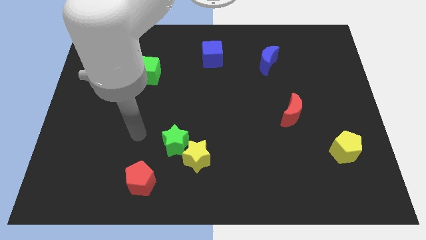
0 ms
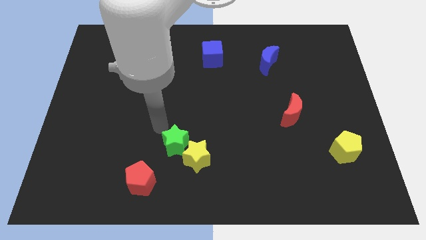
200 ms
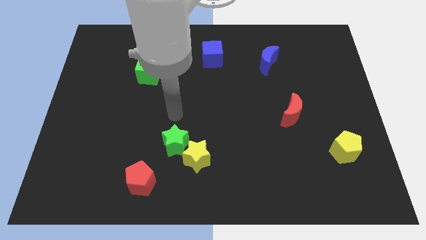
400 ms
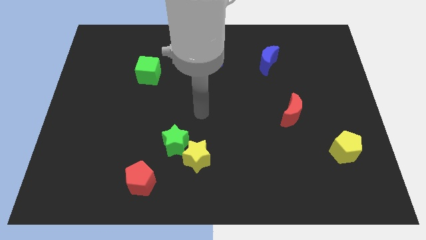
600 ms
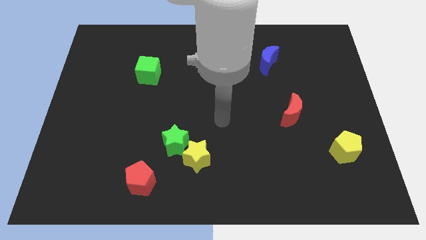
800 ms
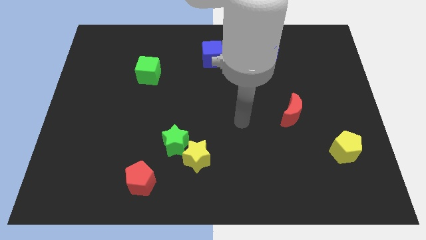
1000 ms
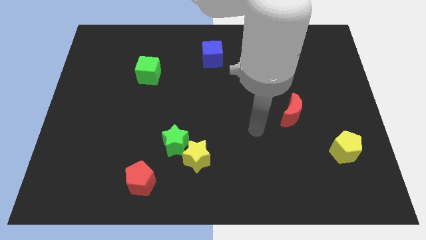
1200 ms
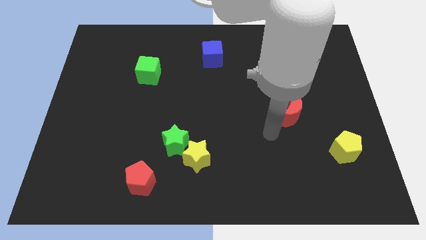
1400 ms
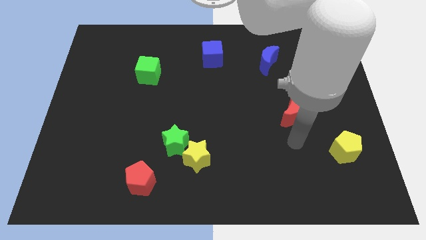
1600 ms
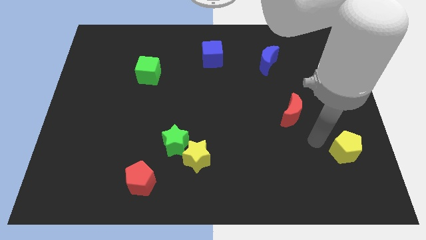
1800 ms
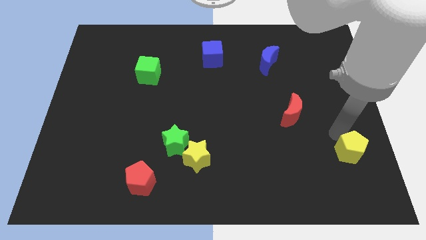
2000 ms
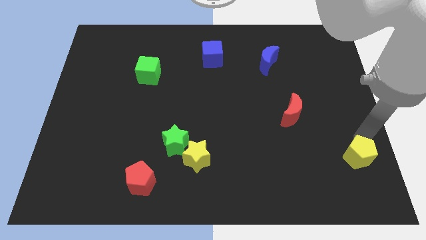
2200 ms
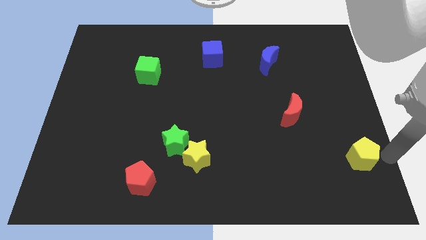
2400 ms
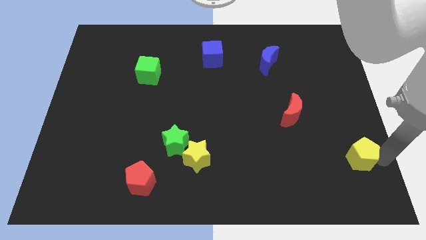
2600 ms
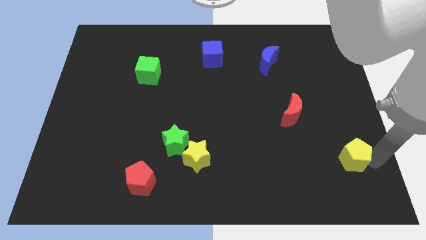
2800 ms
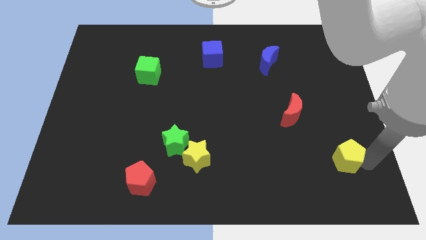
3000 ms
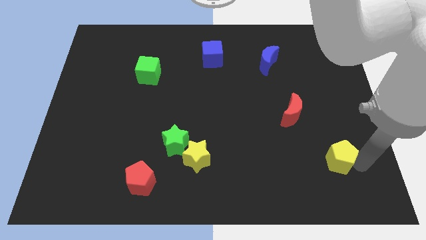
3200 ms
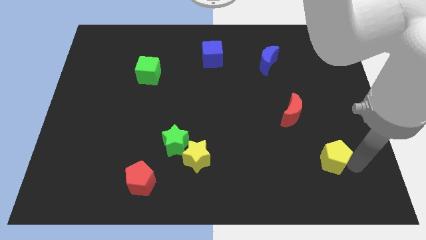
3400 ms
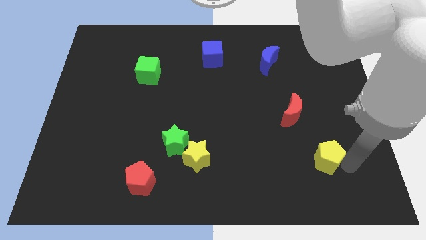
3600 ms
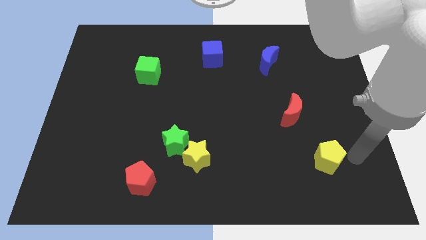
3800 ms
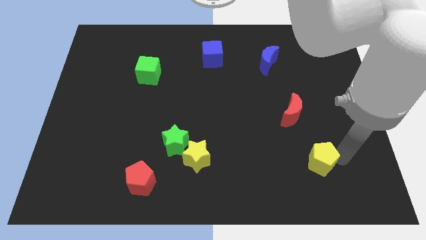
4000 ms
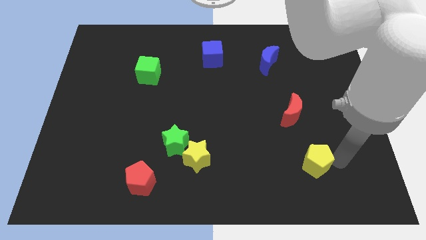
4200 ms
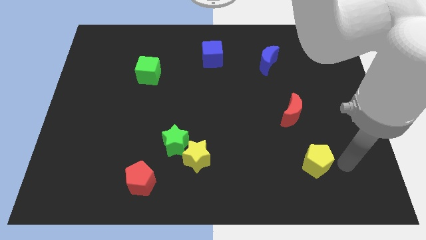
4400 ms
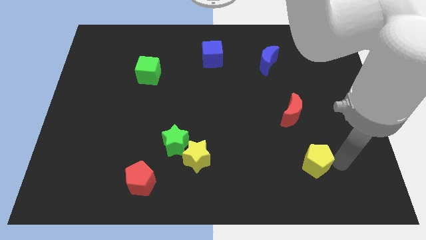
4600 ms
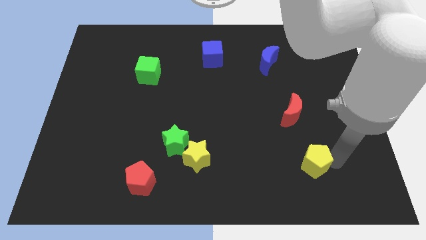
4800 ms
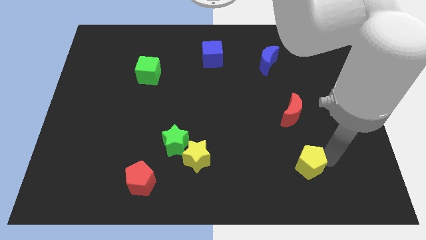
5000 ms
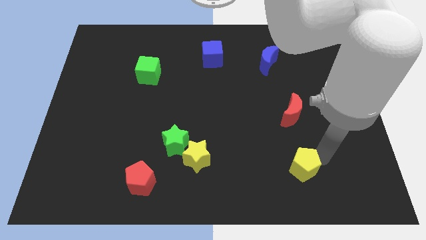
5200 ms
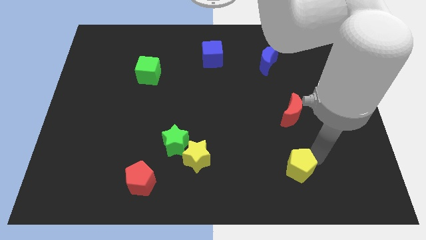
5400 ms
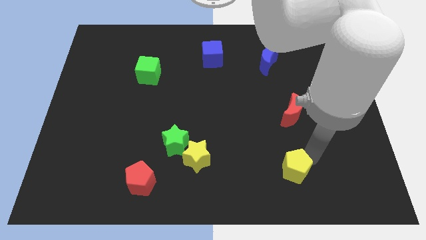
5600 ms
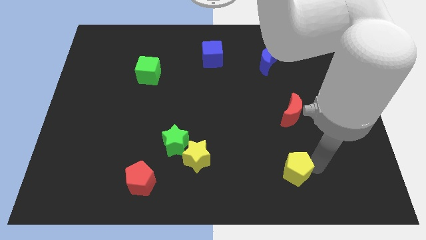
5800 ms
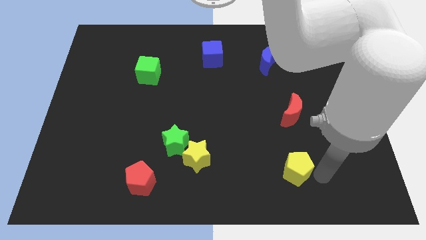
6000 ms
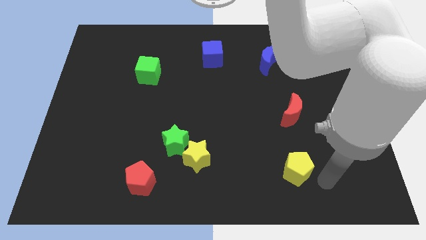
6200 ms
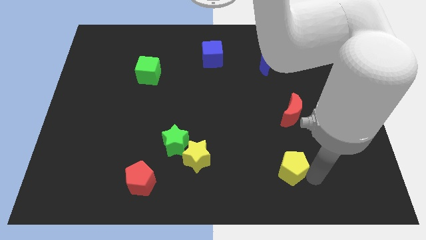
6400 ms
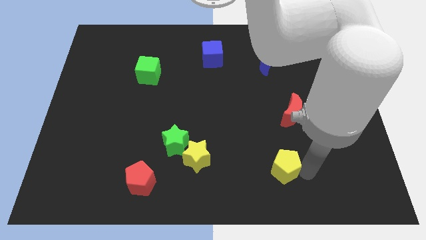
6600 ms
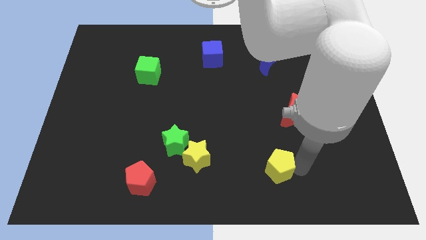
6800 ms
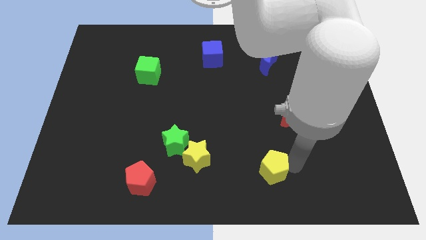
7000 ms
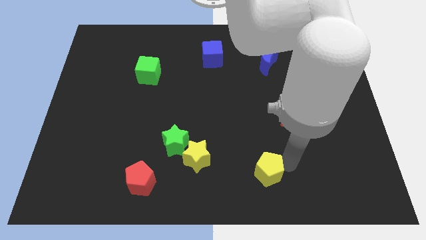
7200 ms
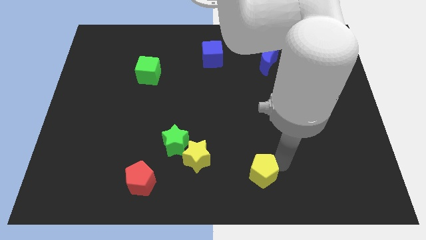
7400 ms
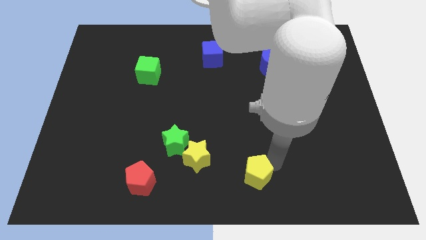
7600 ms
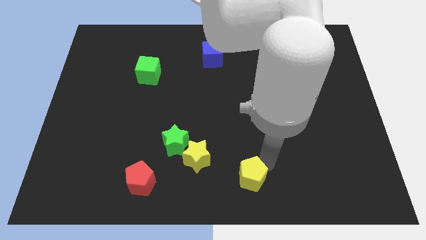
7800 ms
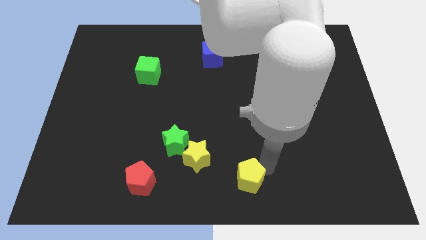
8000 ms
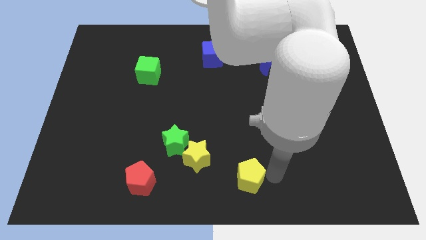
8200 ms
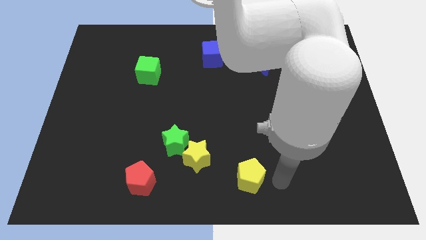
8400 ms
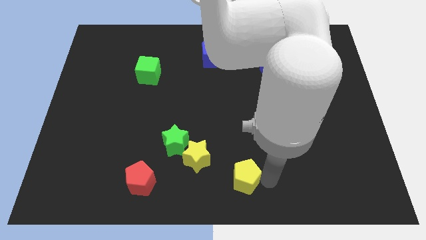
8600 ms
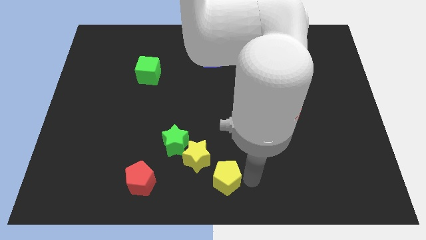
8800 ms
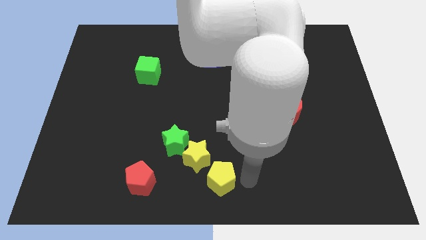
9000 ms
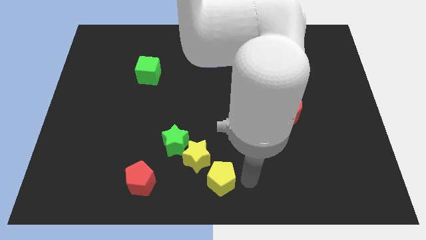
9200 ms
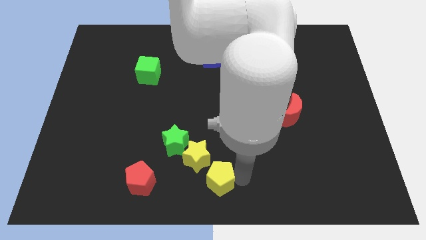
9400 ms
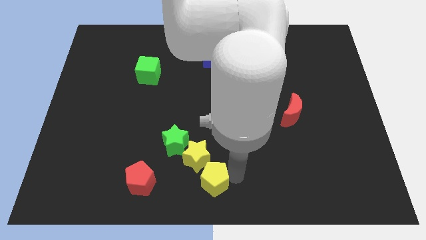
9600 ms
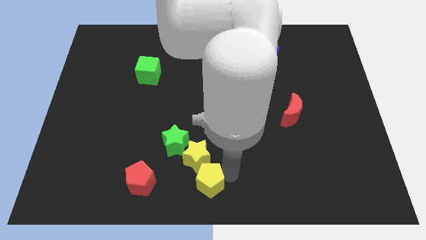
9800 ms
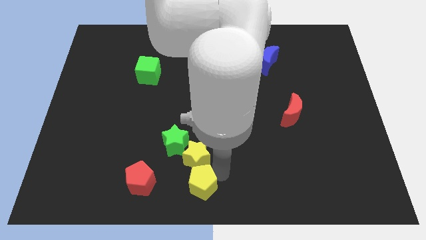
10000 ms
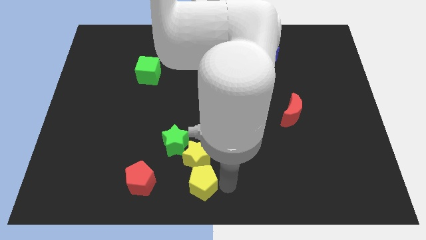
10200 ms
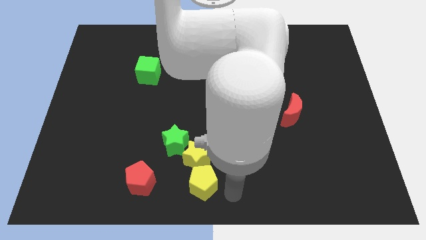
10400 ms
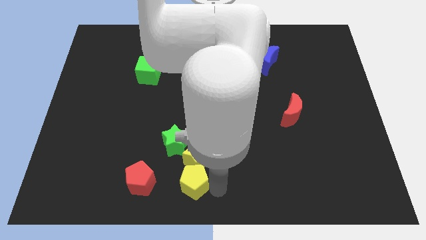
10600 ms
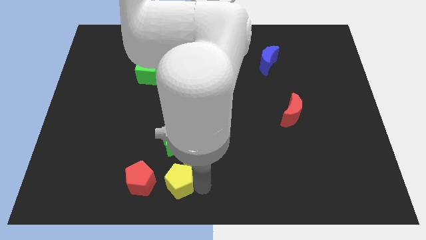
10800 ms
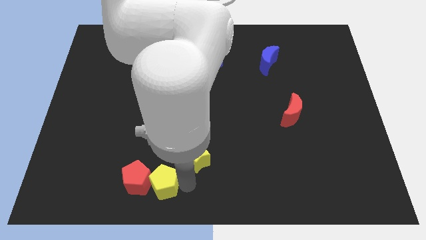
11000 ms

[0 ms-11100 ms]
put the yellow pentagon towards the red pentagon

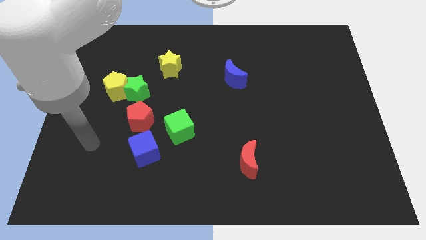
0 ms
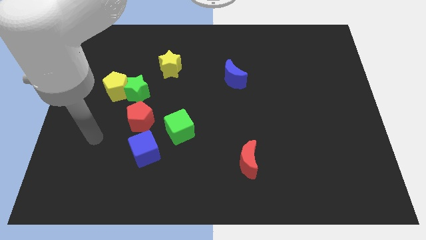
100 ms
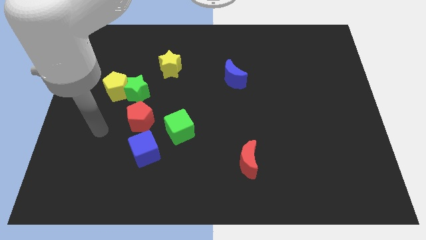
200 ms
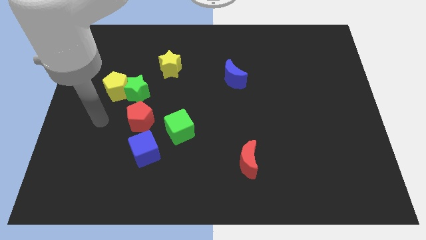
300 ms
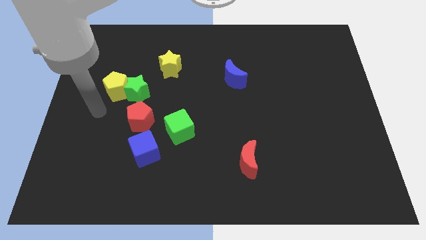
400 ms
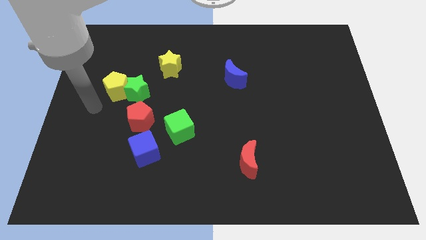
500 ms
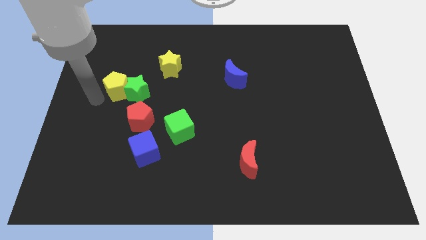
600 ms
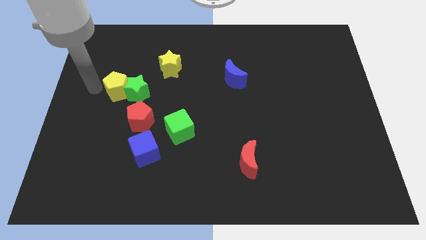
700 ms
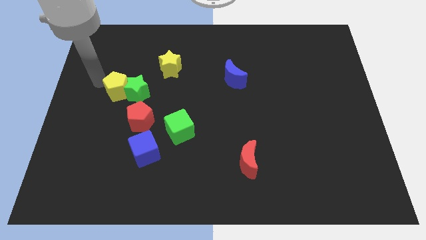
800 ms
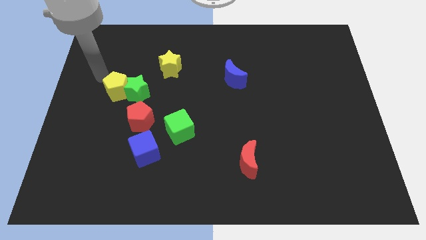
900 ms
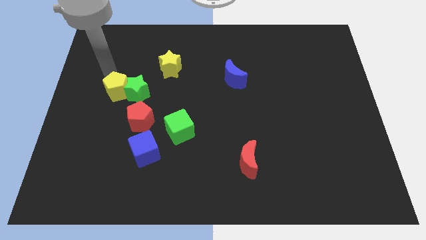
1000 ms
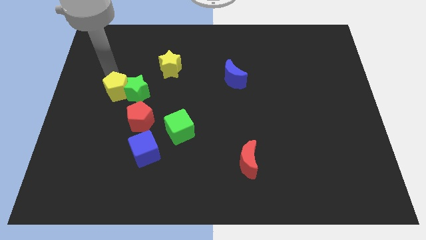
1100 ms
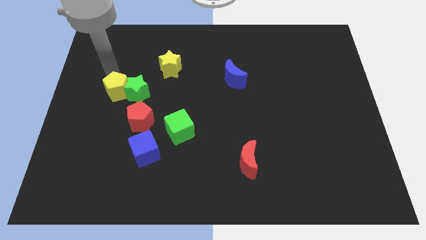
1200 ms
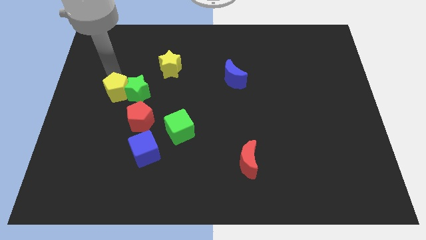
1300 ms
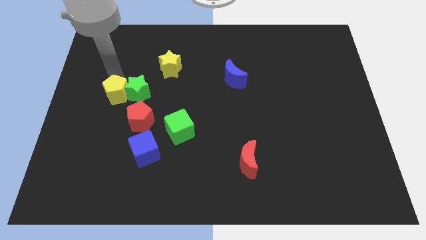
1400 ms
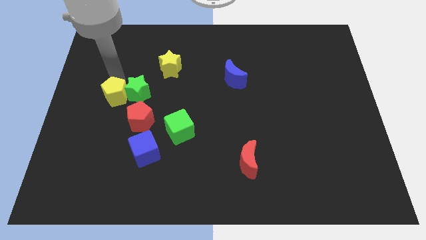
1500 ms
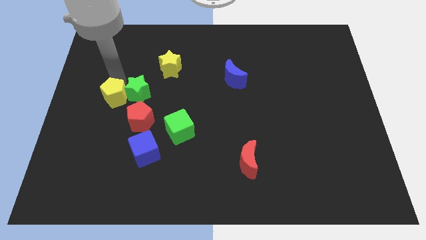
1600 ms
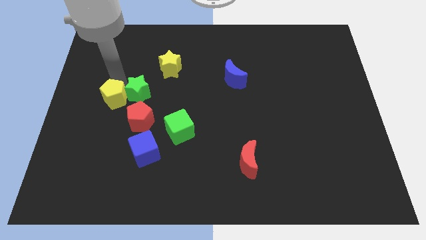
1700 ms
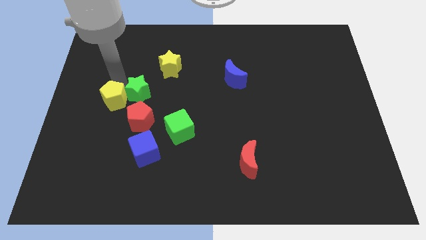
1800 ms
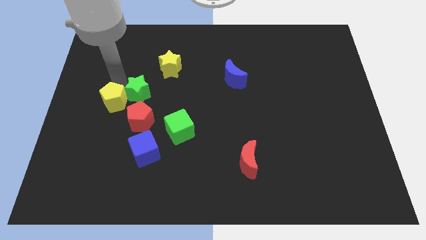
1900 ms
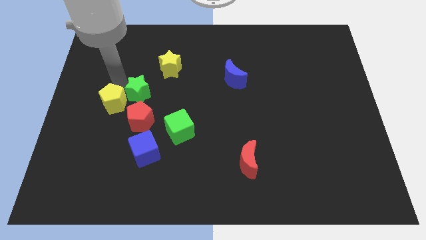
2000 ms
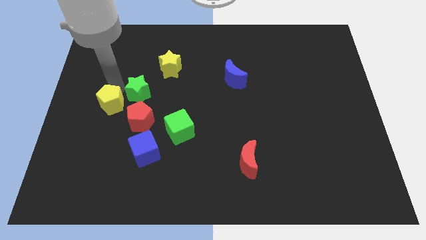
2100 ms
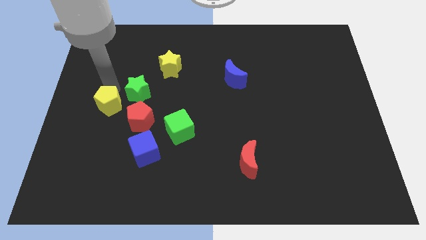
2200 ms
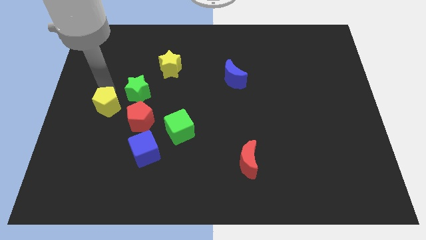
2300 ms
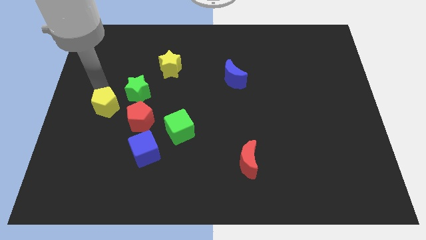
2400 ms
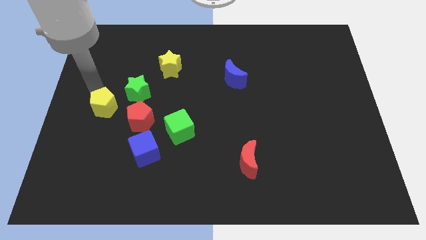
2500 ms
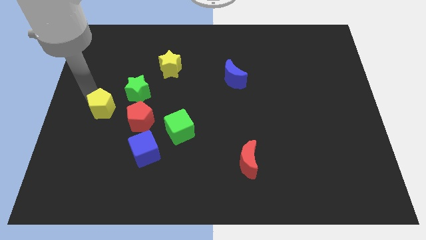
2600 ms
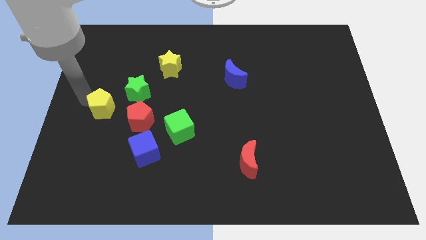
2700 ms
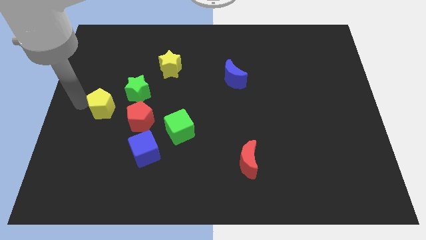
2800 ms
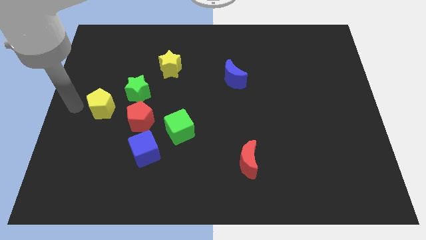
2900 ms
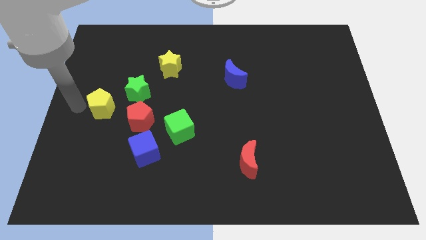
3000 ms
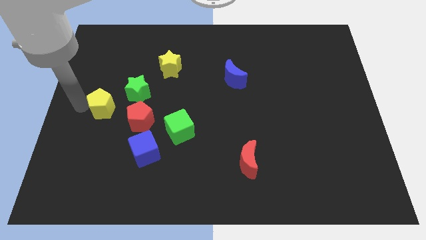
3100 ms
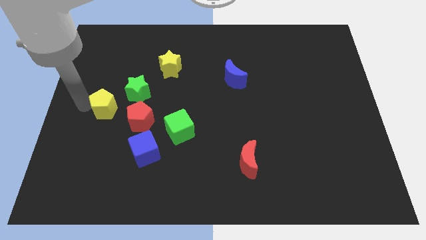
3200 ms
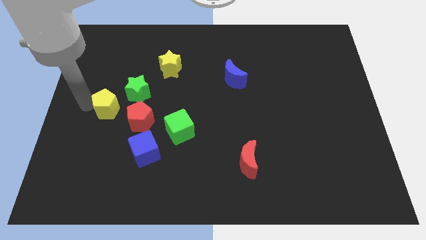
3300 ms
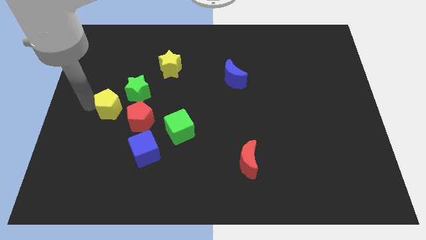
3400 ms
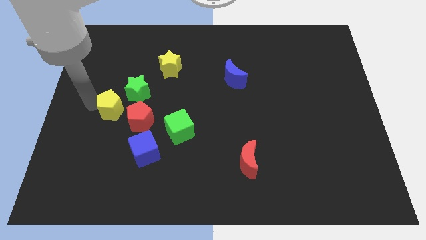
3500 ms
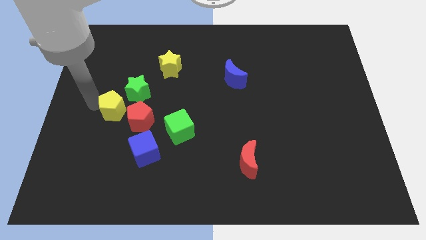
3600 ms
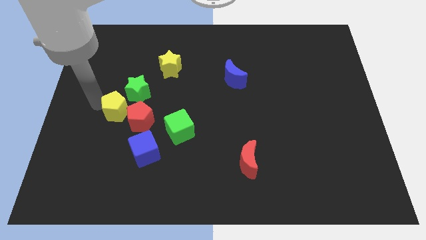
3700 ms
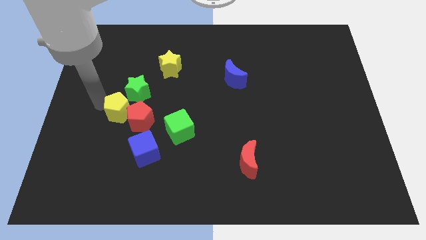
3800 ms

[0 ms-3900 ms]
move the yellow pentagon to the red pentagon
